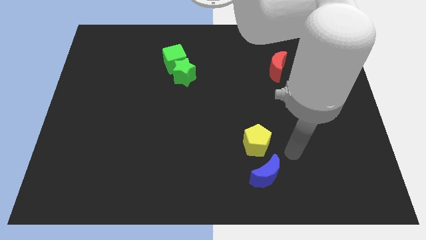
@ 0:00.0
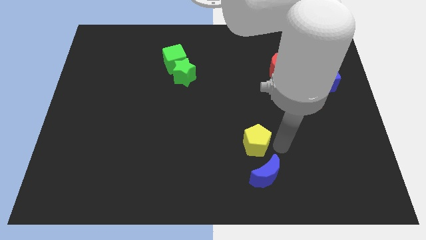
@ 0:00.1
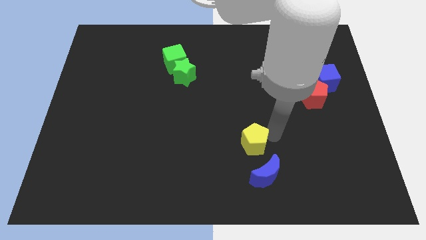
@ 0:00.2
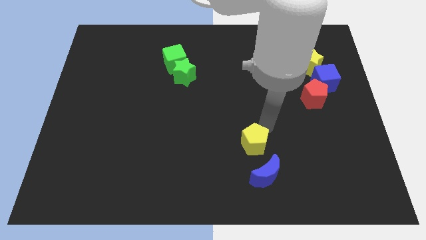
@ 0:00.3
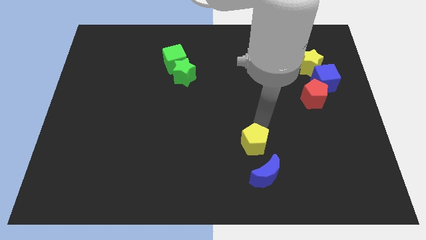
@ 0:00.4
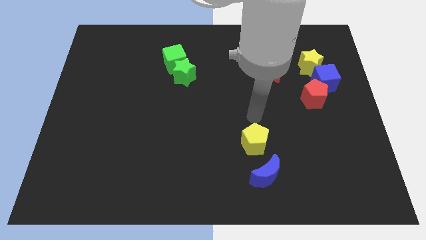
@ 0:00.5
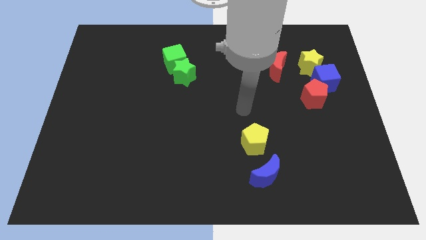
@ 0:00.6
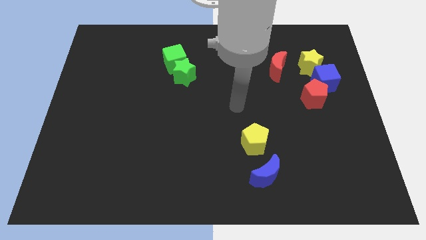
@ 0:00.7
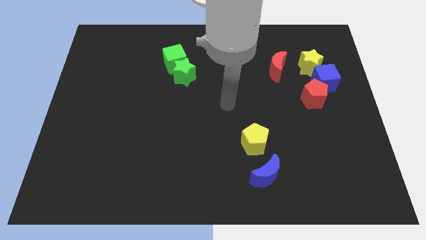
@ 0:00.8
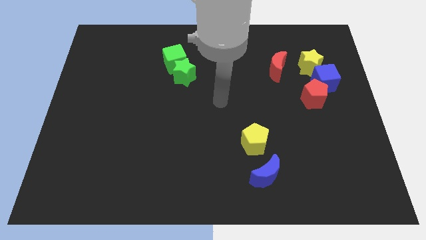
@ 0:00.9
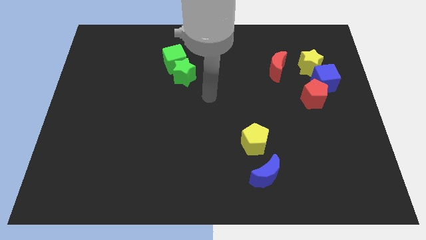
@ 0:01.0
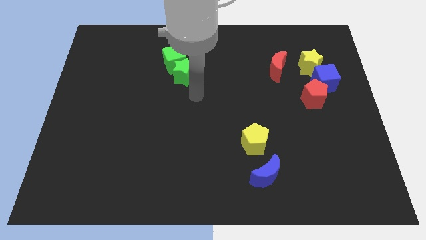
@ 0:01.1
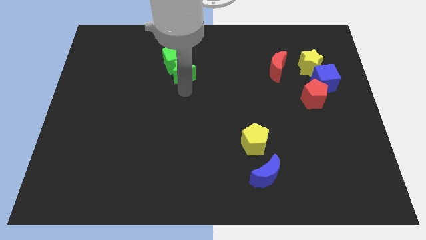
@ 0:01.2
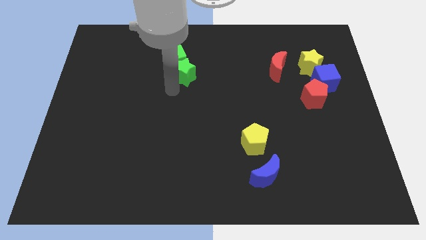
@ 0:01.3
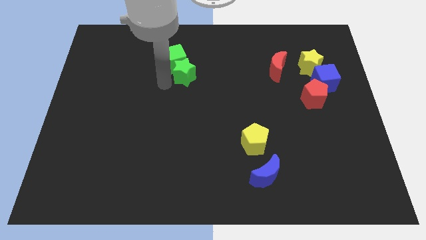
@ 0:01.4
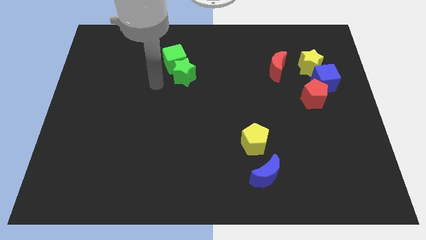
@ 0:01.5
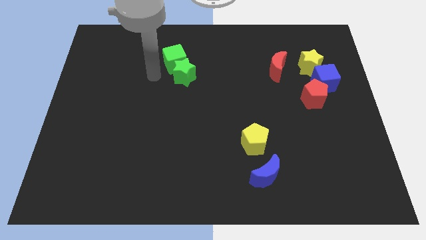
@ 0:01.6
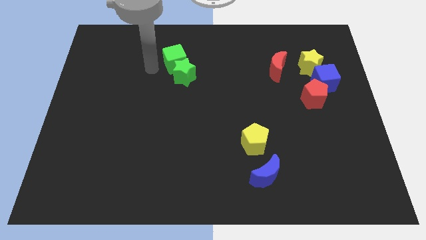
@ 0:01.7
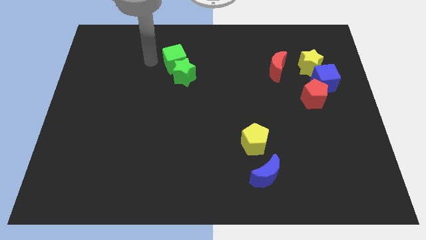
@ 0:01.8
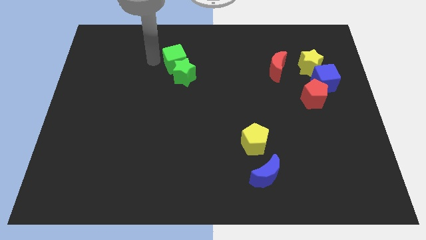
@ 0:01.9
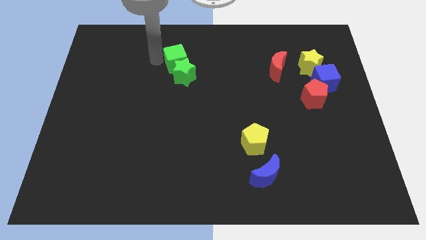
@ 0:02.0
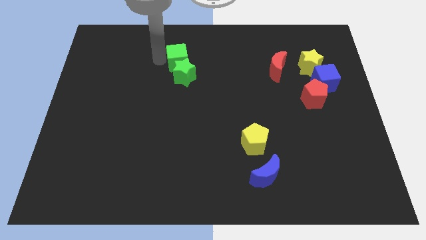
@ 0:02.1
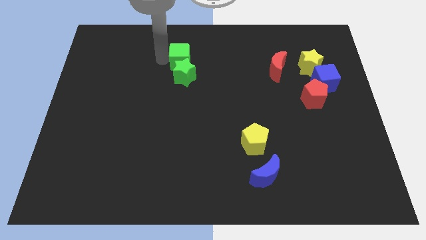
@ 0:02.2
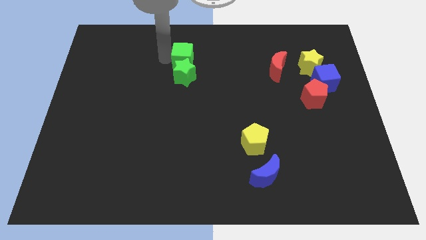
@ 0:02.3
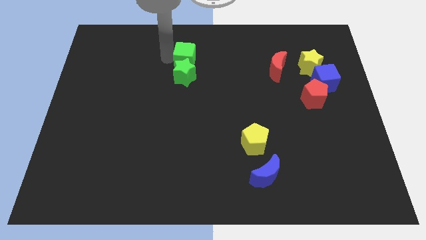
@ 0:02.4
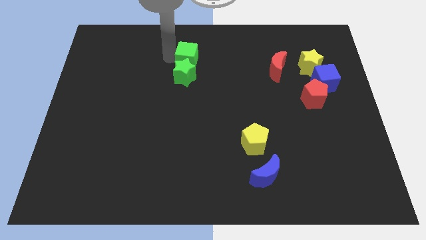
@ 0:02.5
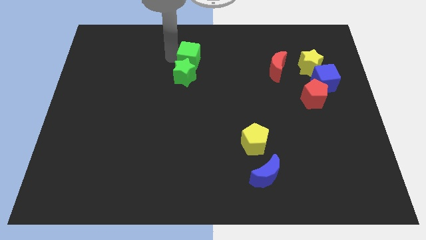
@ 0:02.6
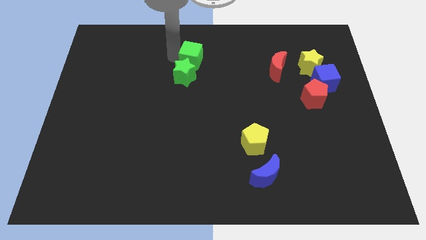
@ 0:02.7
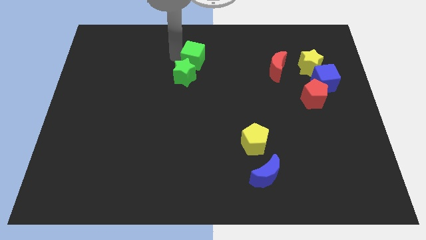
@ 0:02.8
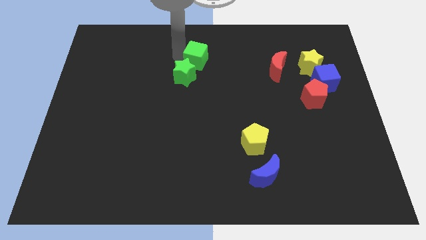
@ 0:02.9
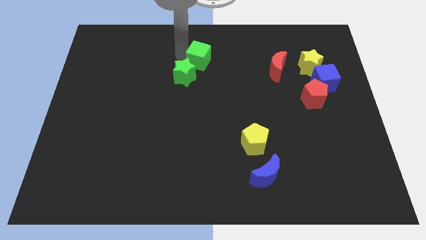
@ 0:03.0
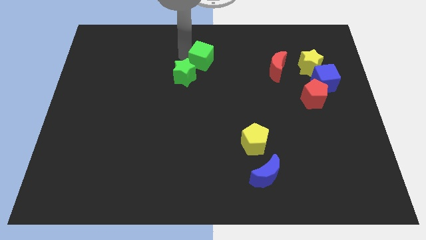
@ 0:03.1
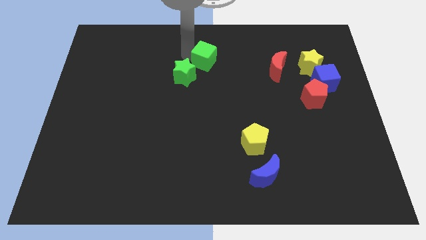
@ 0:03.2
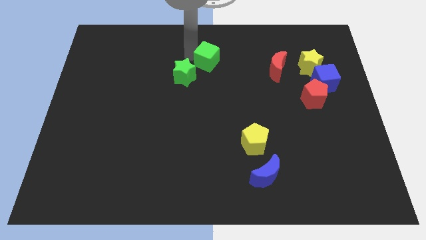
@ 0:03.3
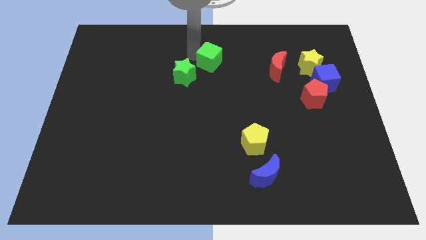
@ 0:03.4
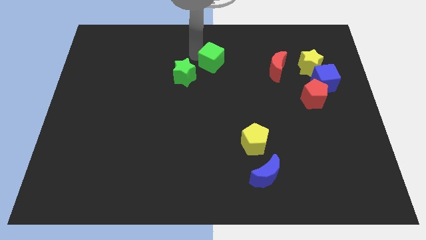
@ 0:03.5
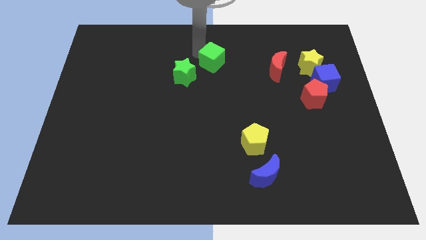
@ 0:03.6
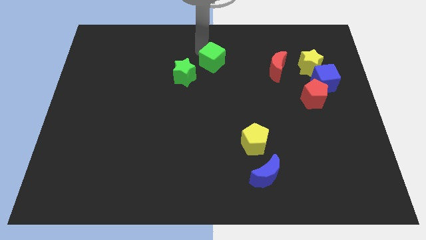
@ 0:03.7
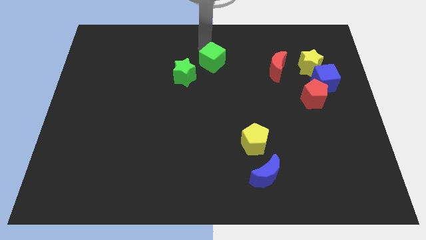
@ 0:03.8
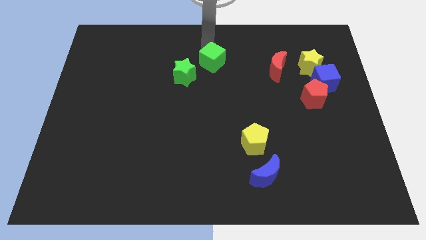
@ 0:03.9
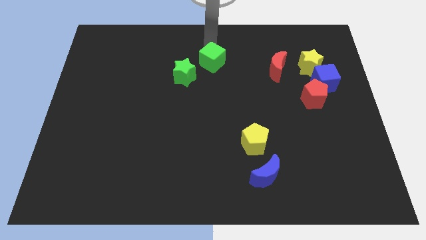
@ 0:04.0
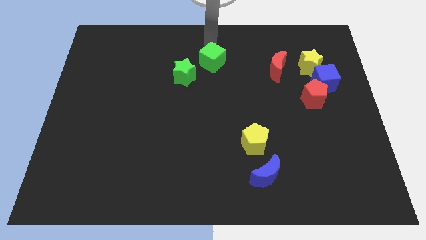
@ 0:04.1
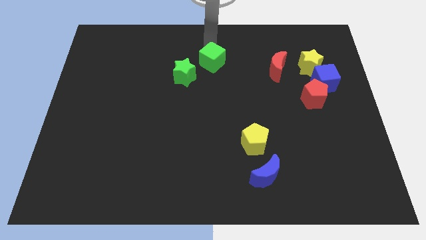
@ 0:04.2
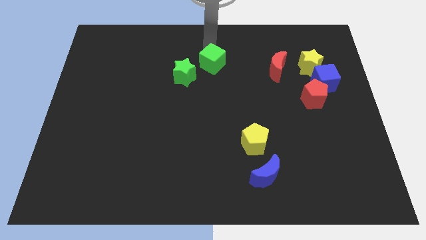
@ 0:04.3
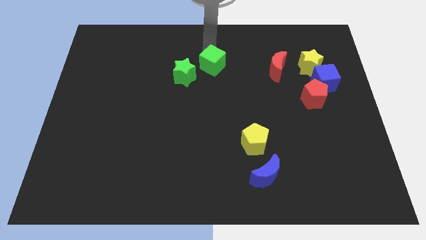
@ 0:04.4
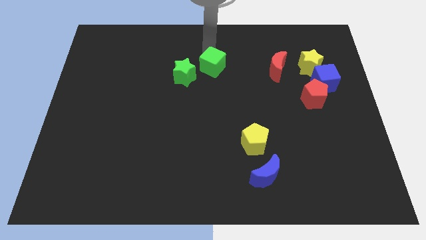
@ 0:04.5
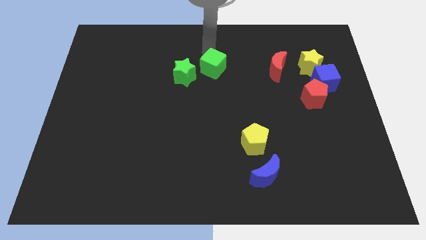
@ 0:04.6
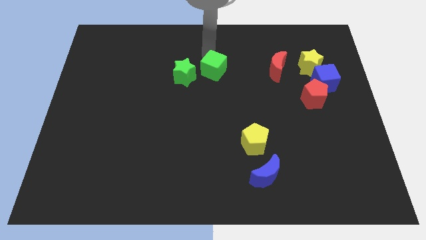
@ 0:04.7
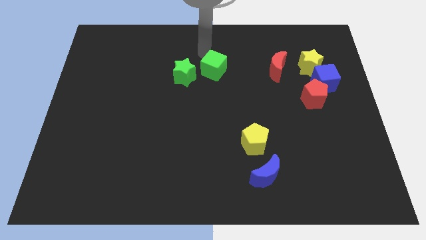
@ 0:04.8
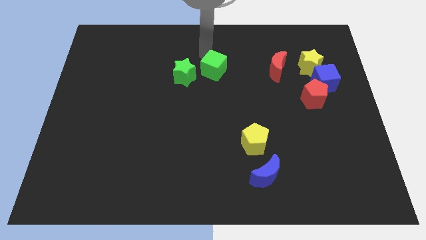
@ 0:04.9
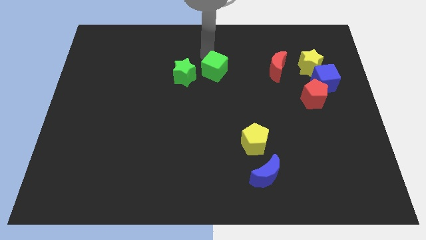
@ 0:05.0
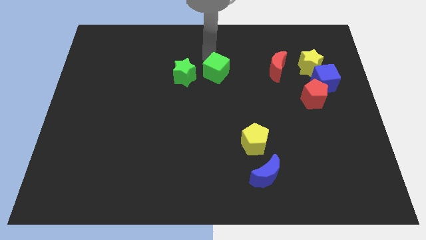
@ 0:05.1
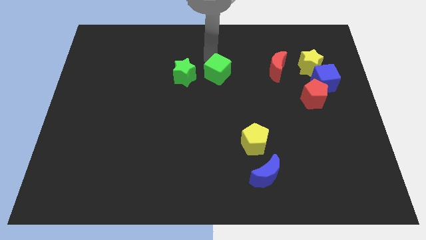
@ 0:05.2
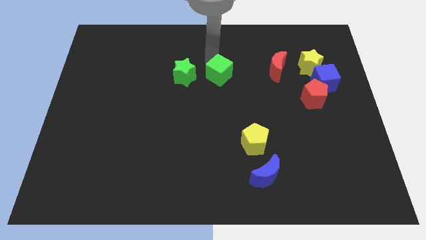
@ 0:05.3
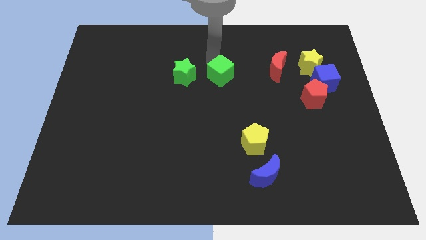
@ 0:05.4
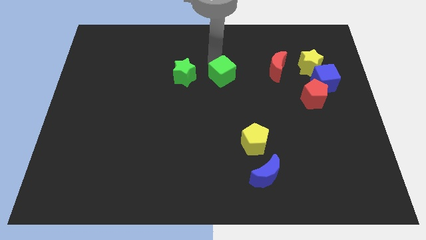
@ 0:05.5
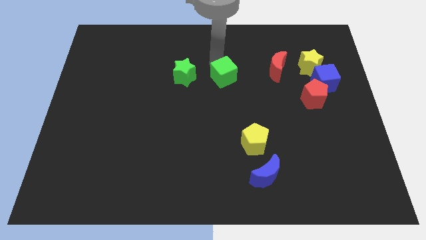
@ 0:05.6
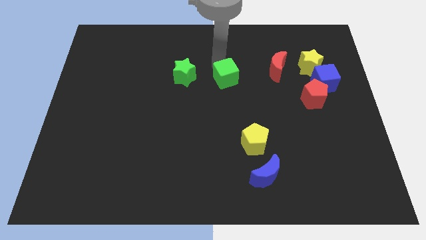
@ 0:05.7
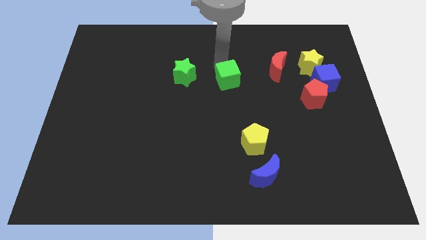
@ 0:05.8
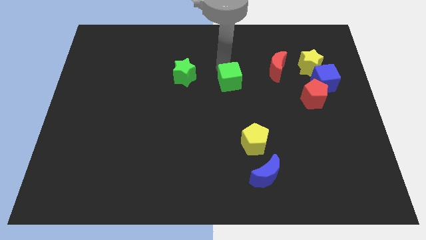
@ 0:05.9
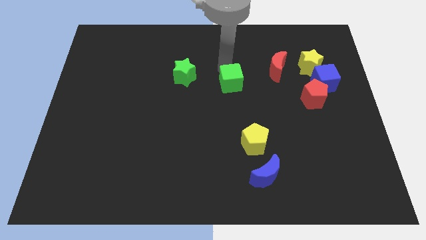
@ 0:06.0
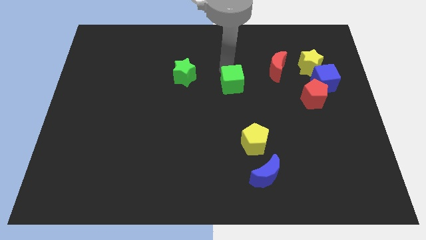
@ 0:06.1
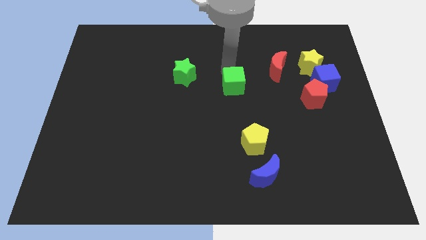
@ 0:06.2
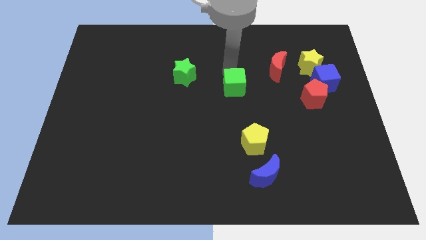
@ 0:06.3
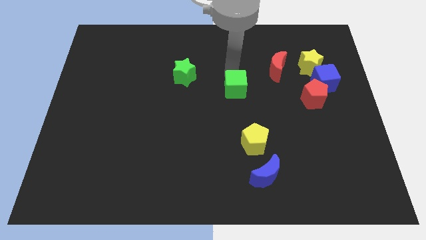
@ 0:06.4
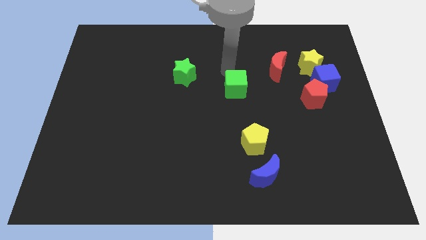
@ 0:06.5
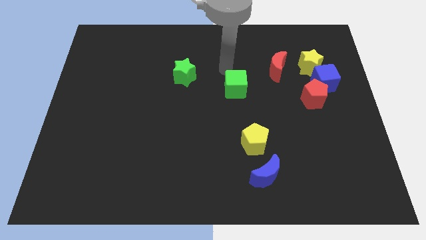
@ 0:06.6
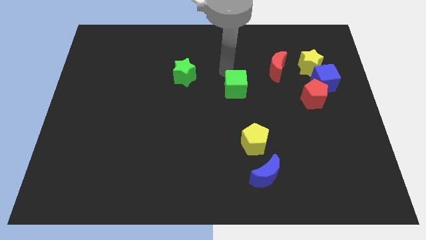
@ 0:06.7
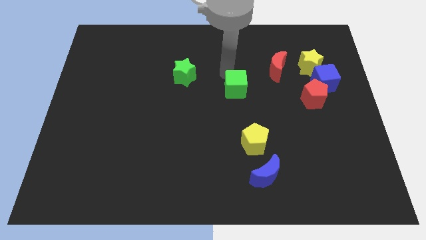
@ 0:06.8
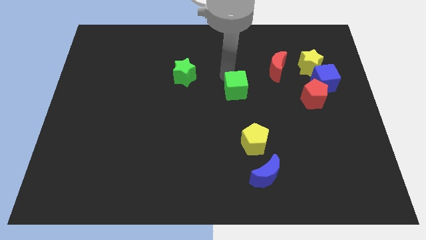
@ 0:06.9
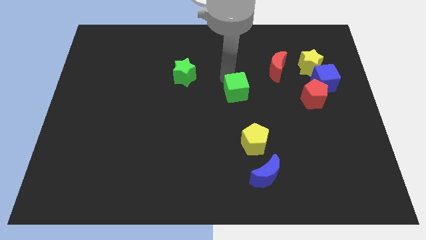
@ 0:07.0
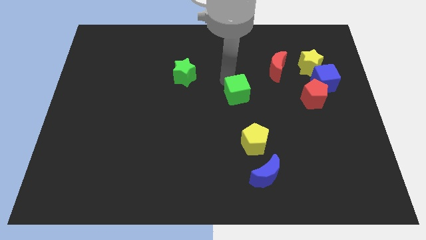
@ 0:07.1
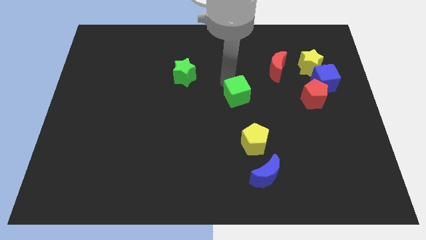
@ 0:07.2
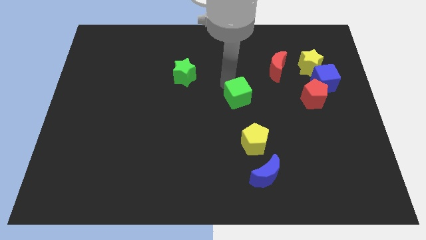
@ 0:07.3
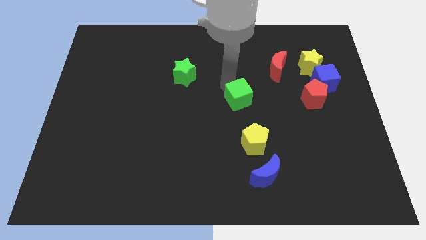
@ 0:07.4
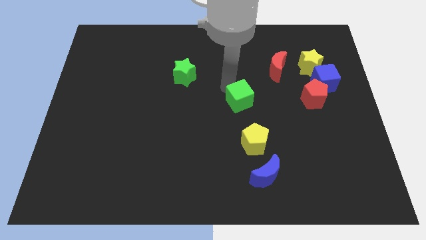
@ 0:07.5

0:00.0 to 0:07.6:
move the green cube diagonally down and to the right

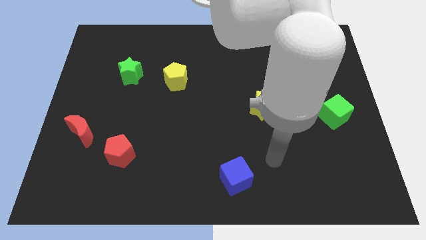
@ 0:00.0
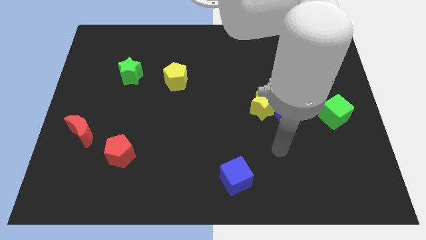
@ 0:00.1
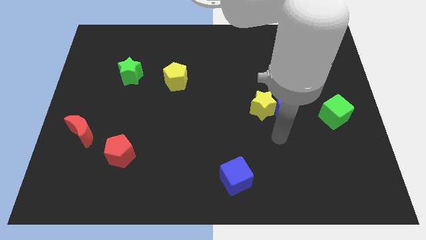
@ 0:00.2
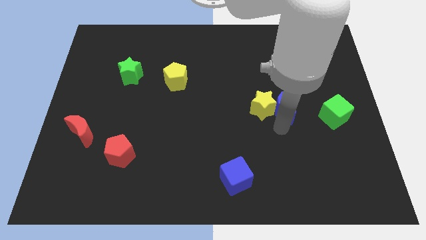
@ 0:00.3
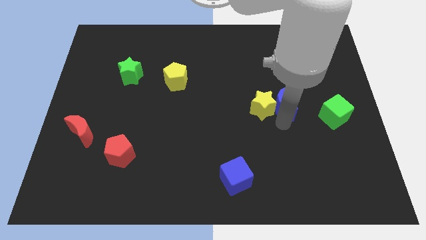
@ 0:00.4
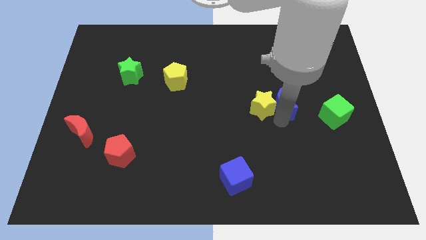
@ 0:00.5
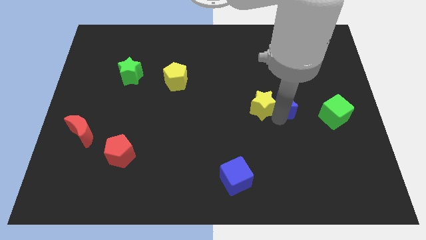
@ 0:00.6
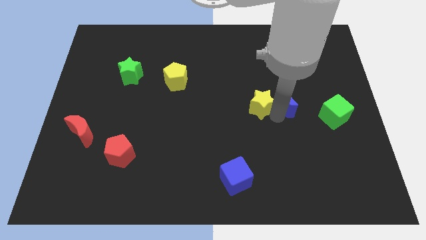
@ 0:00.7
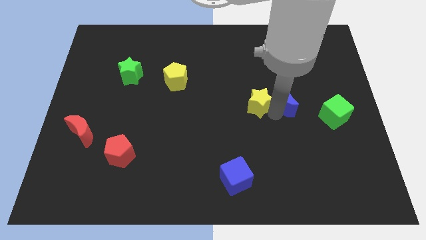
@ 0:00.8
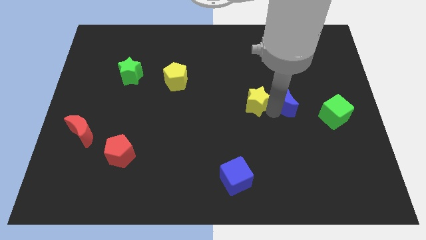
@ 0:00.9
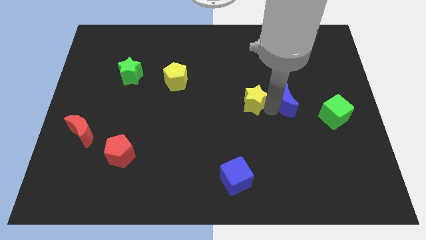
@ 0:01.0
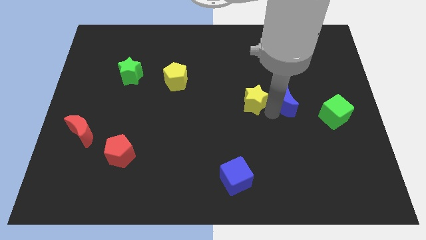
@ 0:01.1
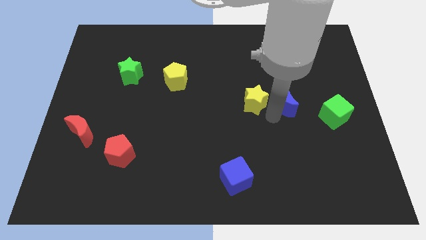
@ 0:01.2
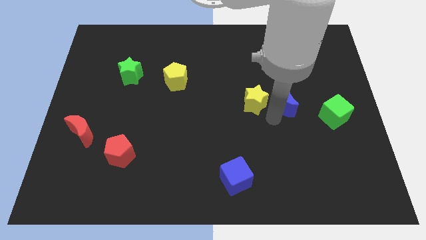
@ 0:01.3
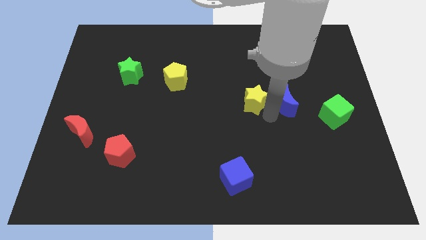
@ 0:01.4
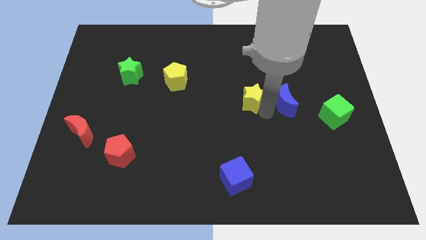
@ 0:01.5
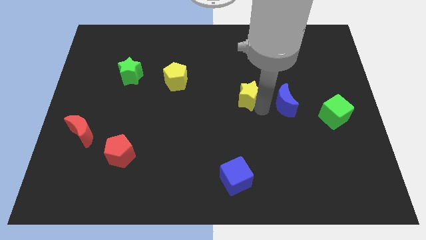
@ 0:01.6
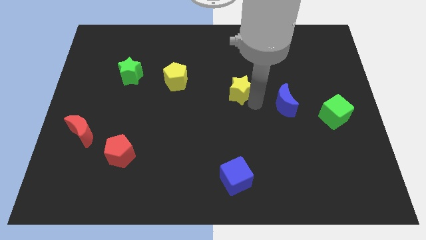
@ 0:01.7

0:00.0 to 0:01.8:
push the yellow star up and to the left diagonally somewhat
